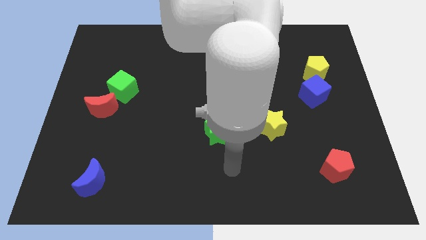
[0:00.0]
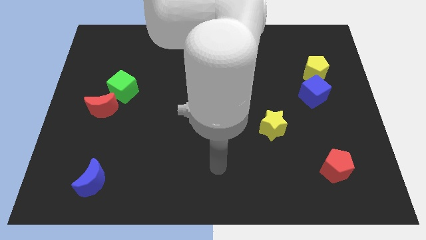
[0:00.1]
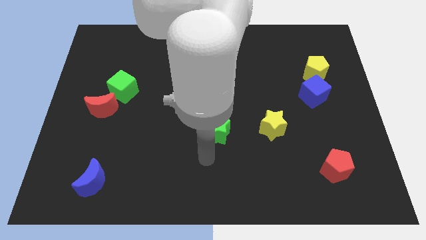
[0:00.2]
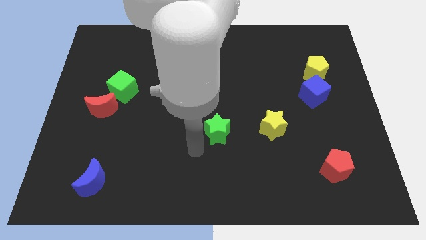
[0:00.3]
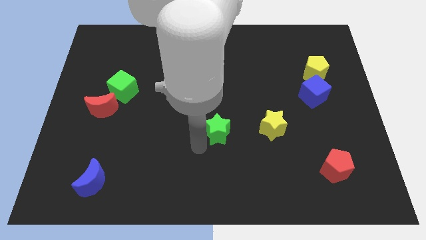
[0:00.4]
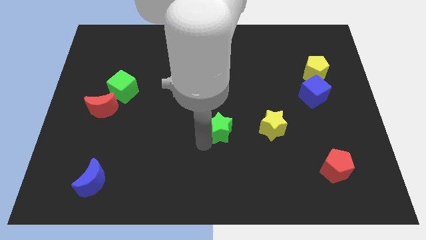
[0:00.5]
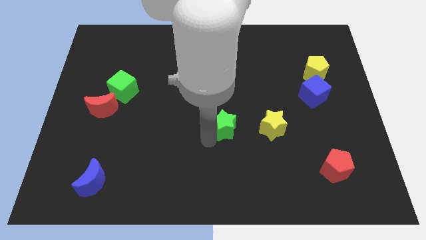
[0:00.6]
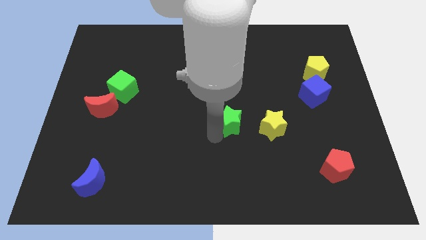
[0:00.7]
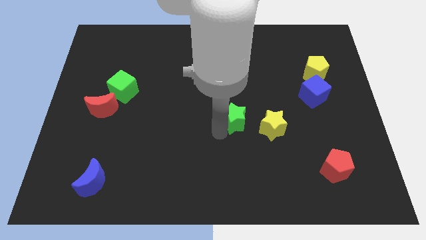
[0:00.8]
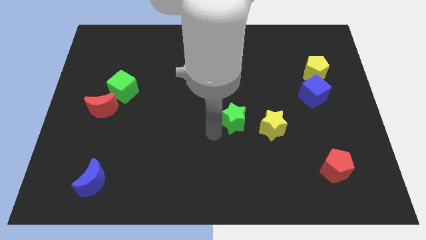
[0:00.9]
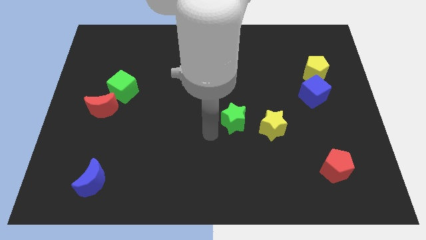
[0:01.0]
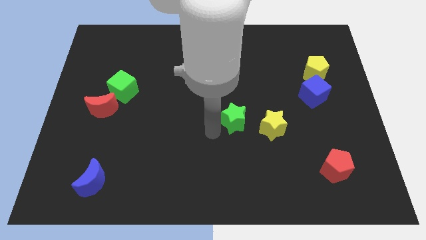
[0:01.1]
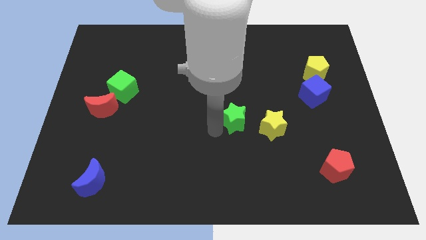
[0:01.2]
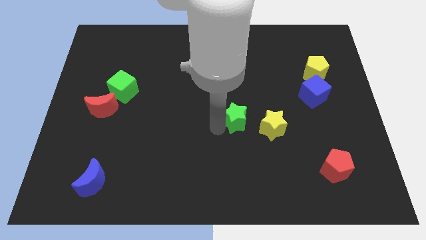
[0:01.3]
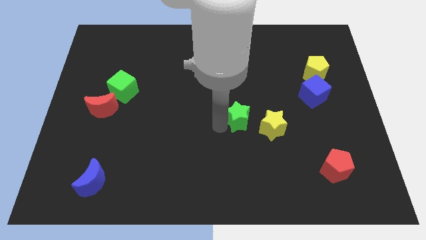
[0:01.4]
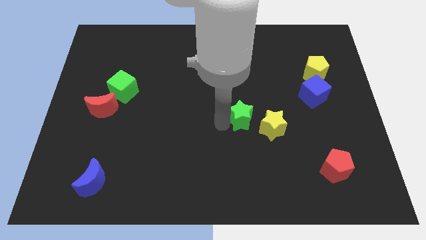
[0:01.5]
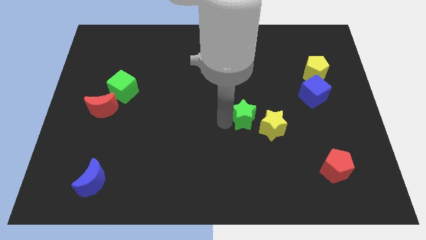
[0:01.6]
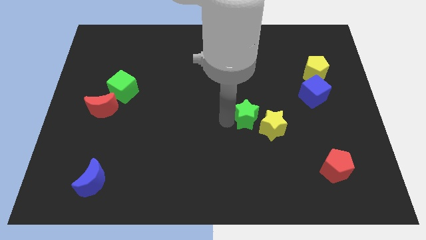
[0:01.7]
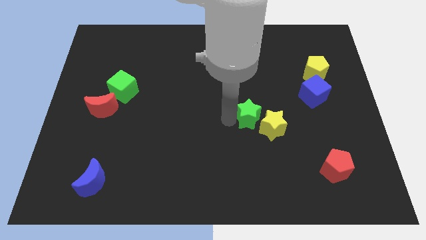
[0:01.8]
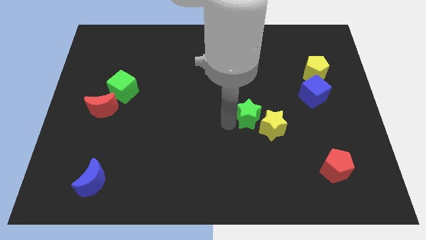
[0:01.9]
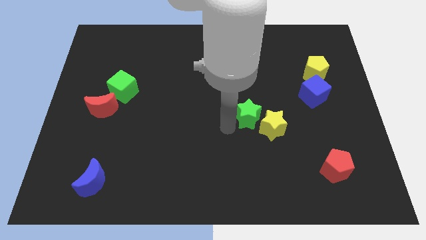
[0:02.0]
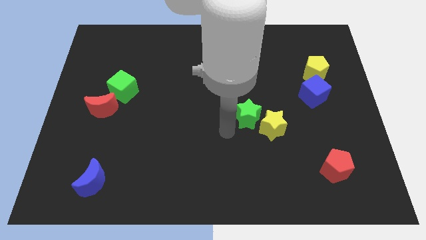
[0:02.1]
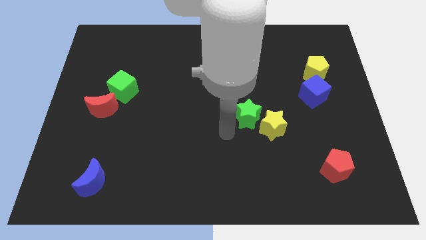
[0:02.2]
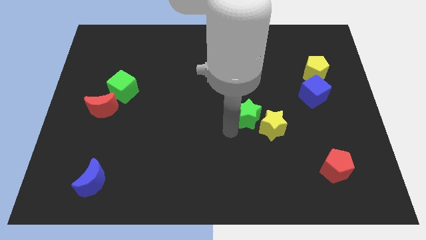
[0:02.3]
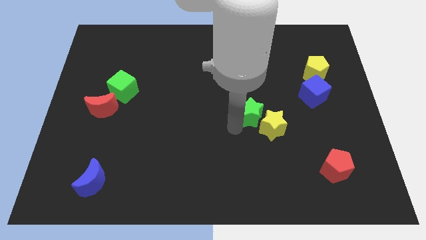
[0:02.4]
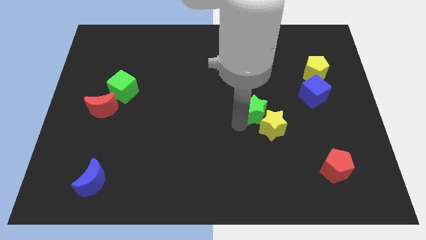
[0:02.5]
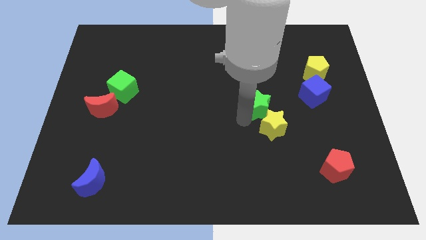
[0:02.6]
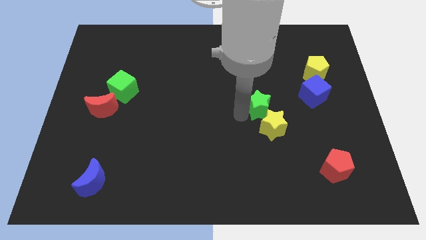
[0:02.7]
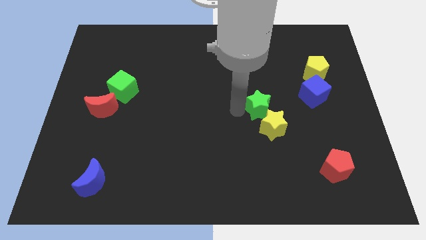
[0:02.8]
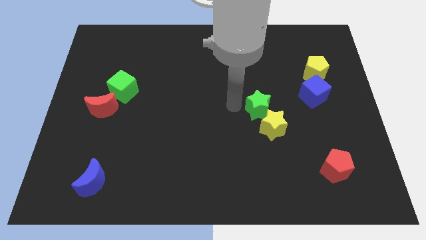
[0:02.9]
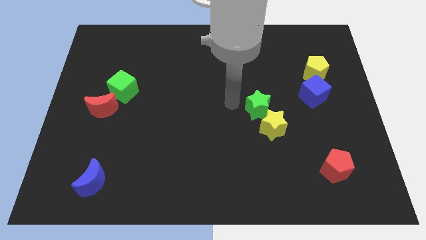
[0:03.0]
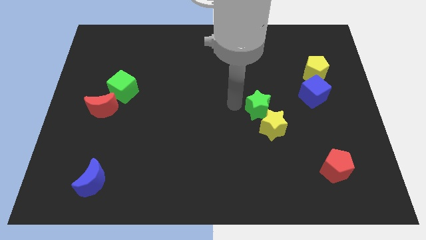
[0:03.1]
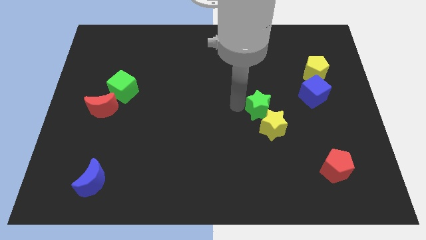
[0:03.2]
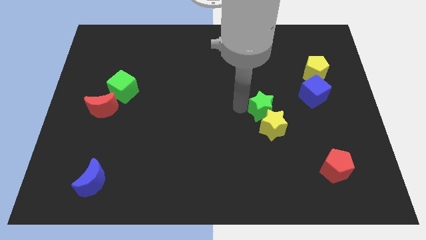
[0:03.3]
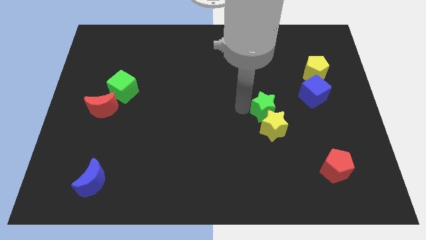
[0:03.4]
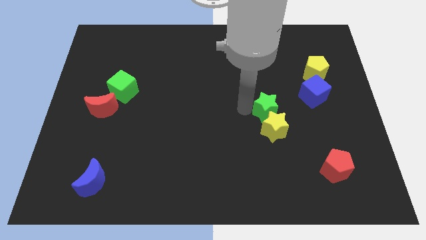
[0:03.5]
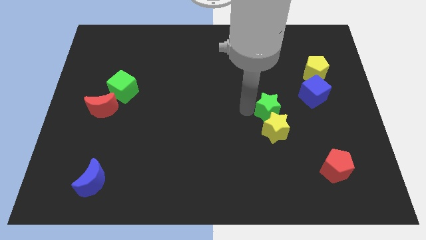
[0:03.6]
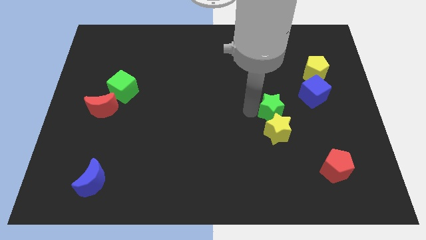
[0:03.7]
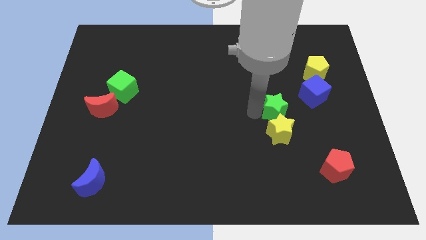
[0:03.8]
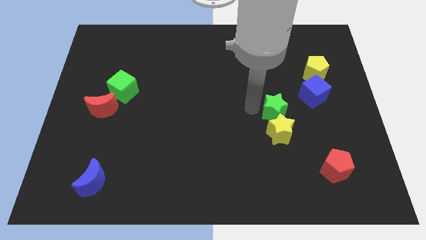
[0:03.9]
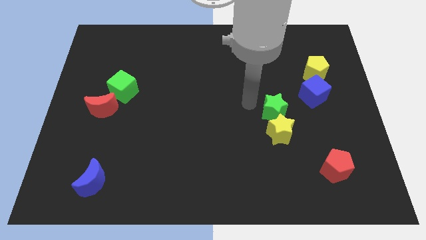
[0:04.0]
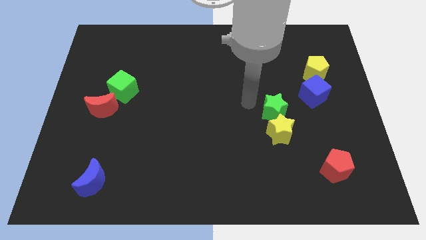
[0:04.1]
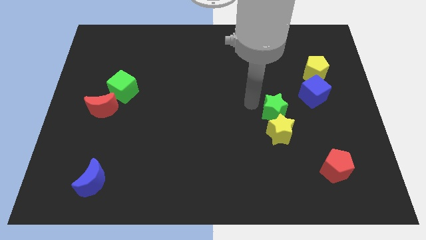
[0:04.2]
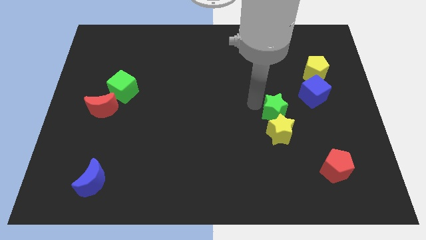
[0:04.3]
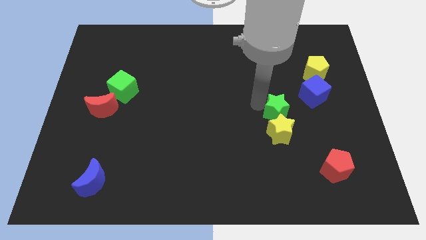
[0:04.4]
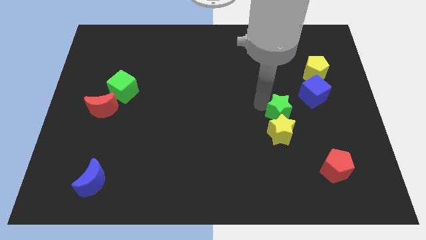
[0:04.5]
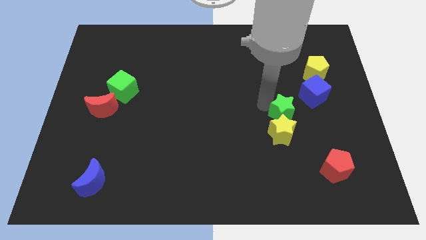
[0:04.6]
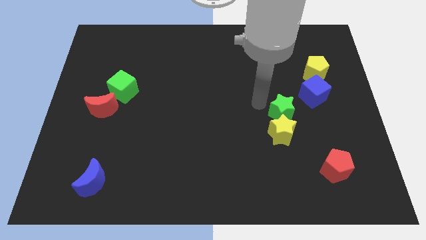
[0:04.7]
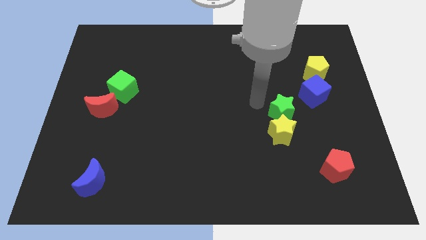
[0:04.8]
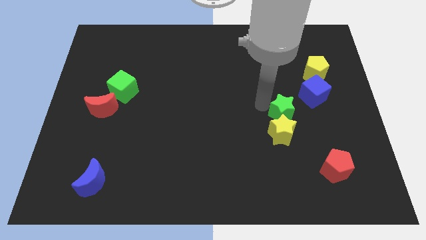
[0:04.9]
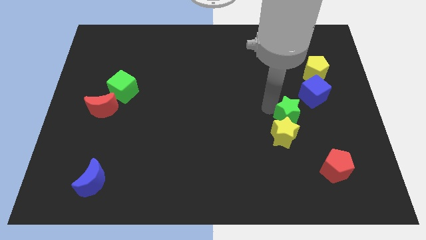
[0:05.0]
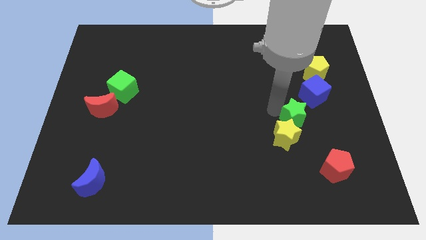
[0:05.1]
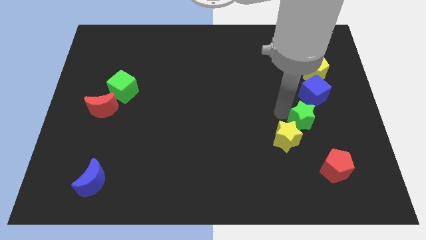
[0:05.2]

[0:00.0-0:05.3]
push the green star below the blue cube

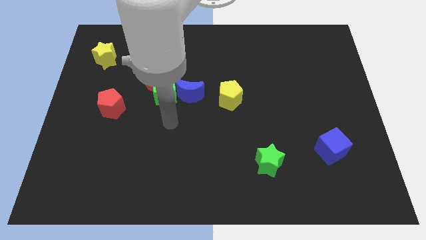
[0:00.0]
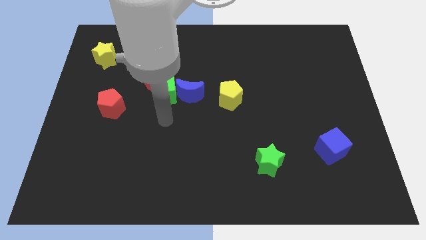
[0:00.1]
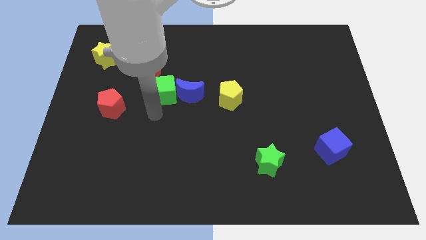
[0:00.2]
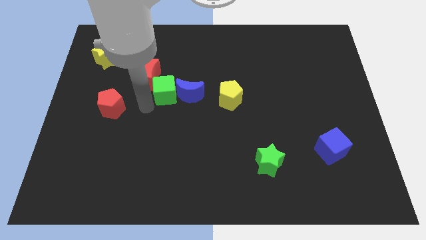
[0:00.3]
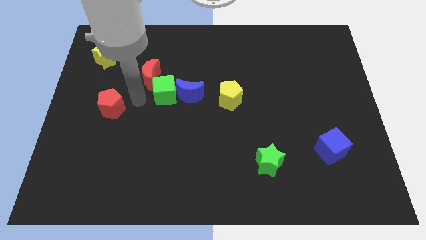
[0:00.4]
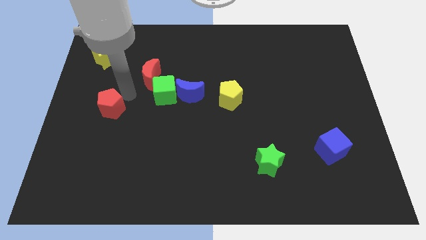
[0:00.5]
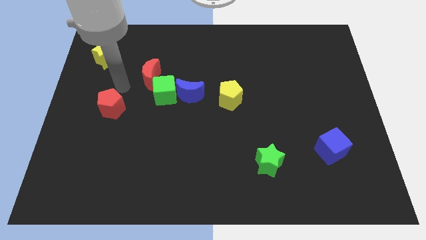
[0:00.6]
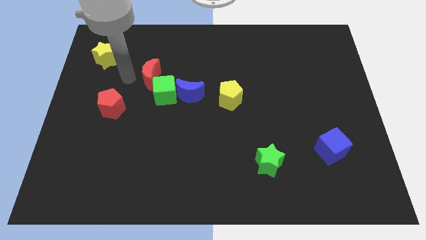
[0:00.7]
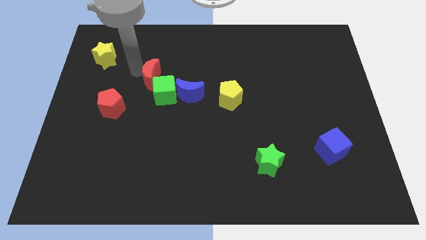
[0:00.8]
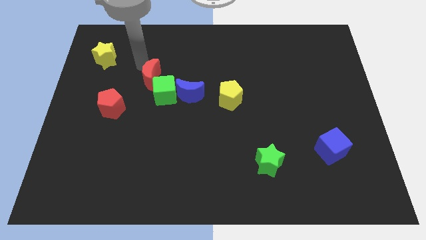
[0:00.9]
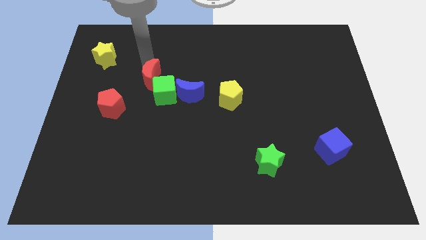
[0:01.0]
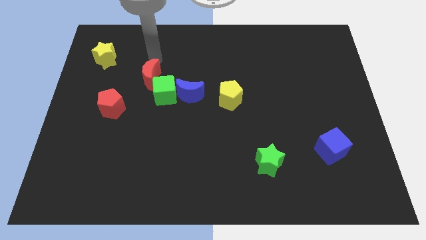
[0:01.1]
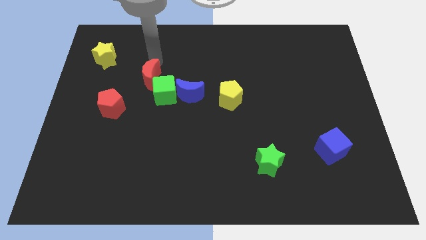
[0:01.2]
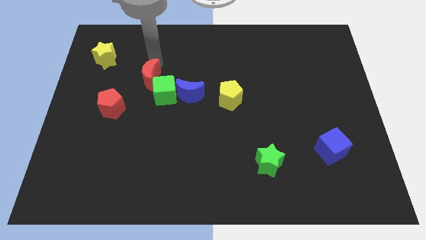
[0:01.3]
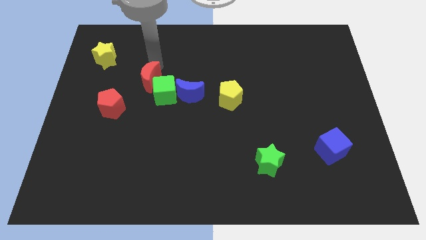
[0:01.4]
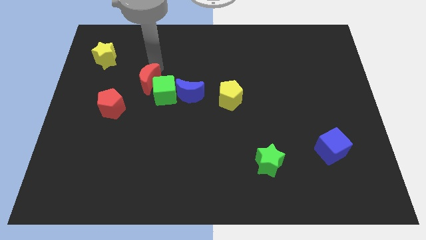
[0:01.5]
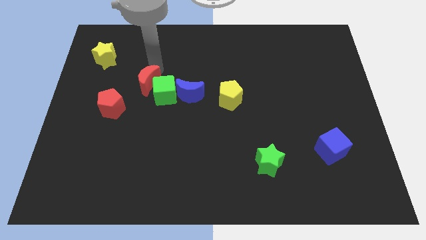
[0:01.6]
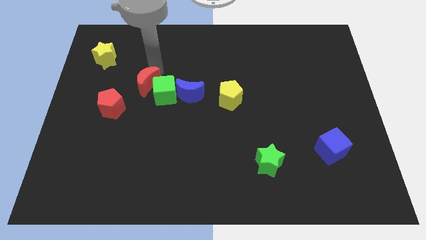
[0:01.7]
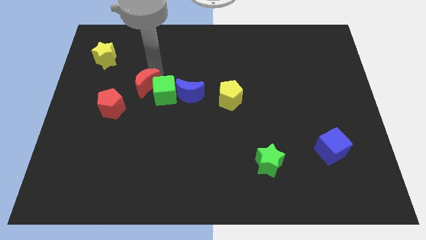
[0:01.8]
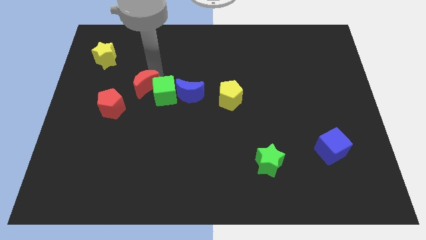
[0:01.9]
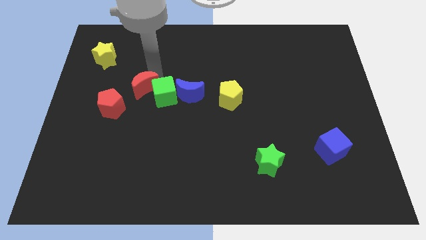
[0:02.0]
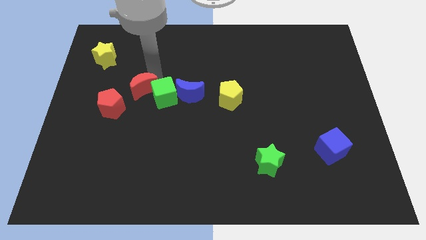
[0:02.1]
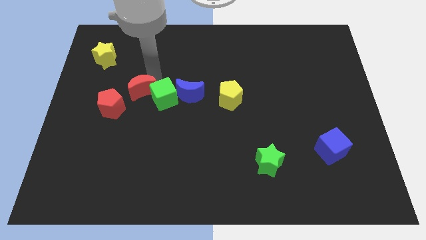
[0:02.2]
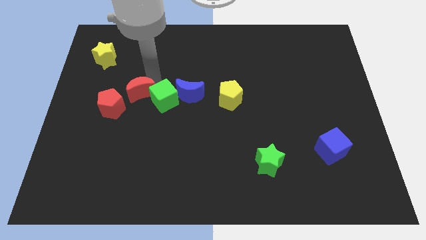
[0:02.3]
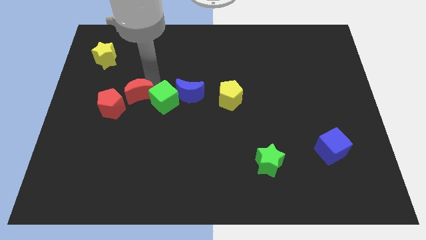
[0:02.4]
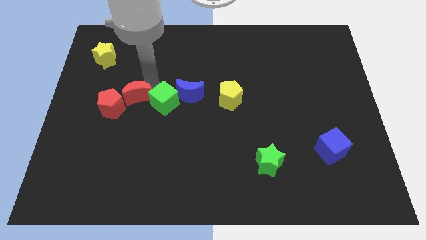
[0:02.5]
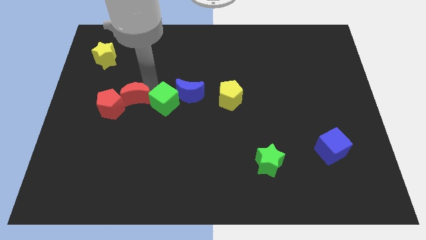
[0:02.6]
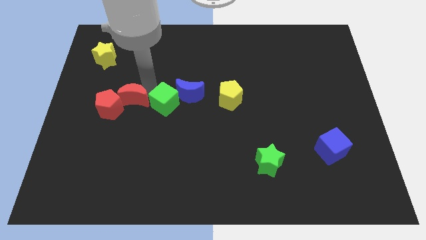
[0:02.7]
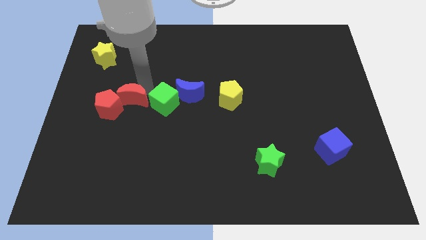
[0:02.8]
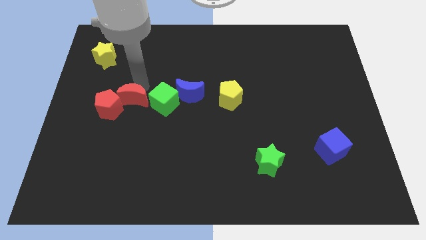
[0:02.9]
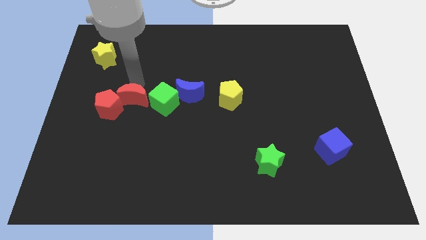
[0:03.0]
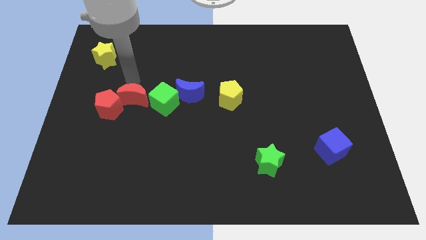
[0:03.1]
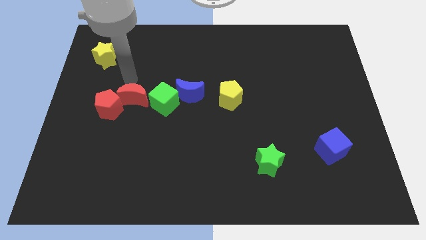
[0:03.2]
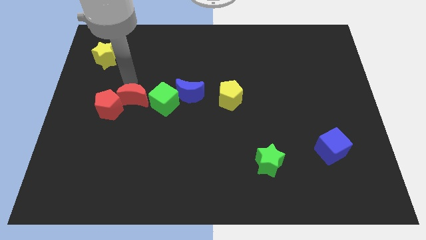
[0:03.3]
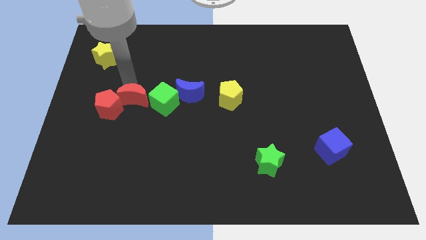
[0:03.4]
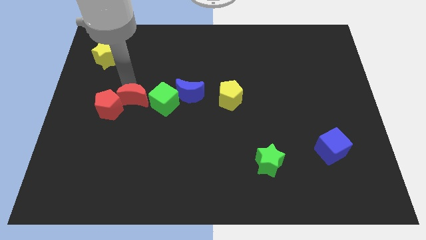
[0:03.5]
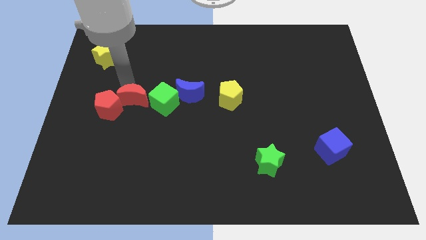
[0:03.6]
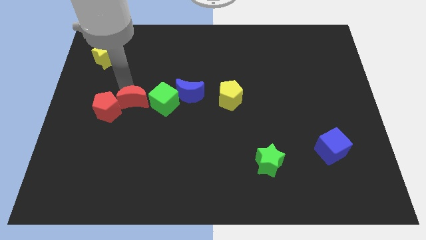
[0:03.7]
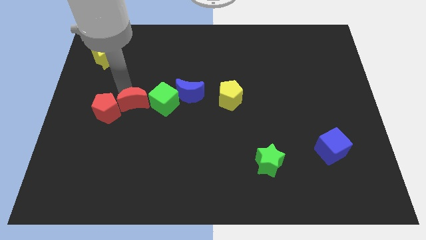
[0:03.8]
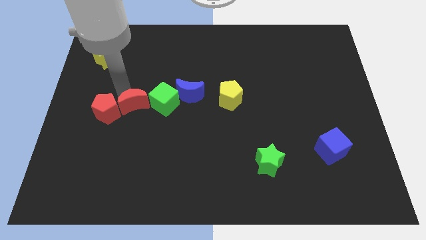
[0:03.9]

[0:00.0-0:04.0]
move the red moon to the bottom left of the green cube
